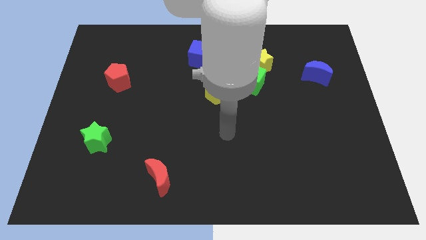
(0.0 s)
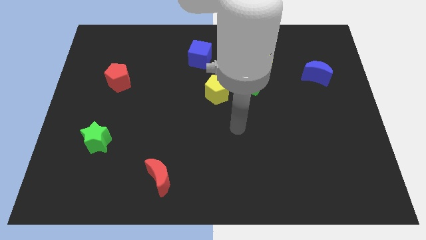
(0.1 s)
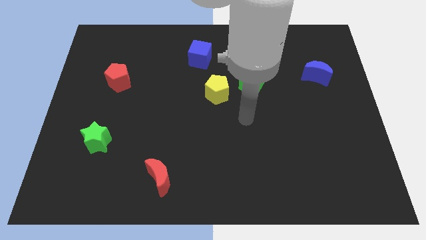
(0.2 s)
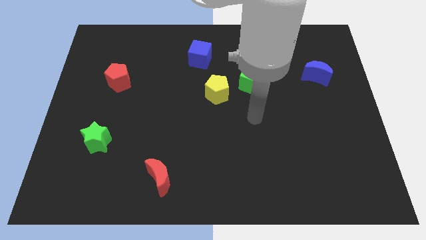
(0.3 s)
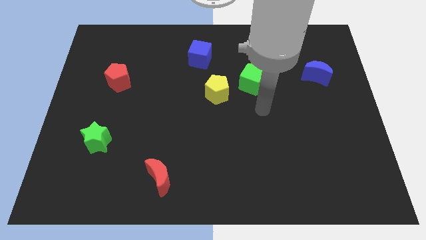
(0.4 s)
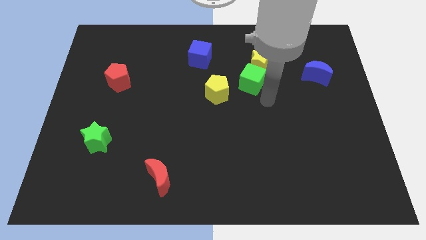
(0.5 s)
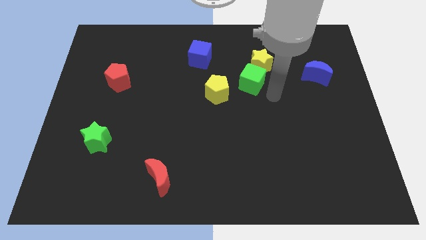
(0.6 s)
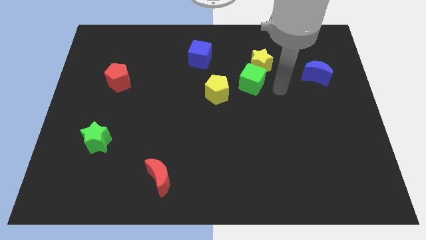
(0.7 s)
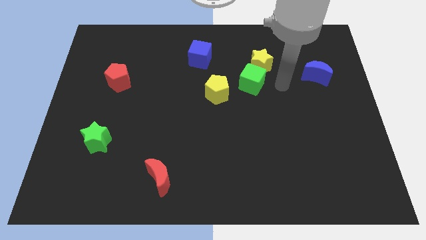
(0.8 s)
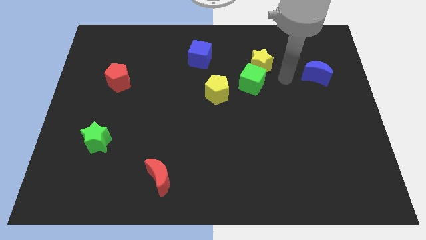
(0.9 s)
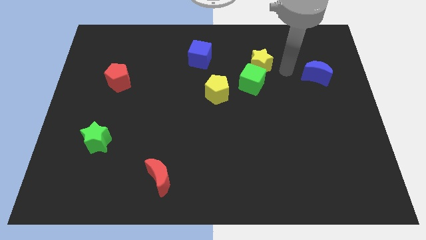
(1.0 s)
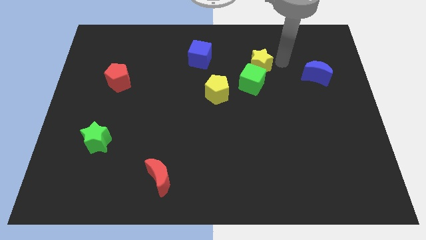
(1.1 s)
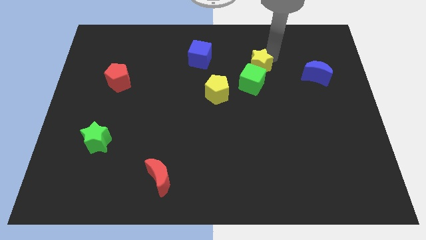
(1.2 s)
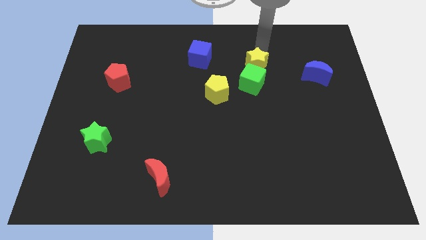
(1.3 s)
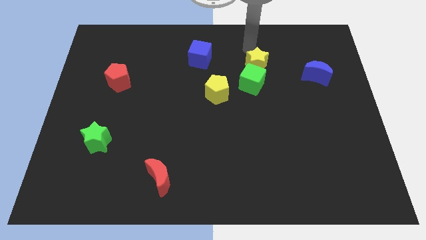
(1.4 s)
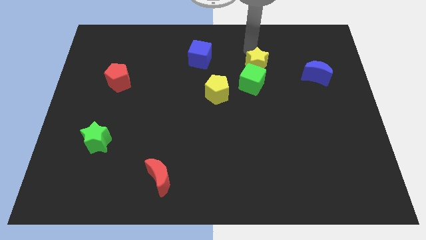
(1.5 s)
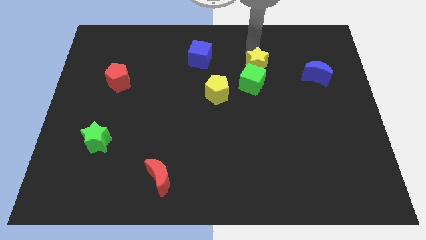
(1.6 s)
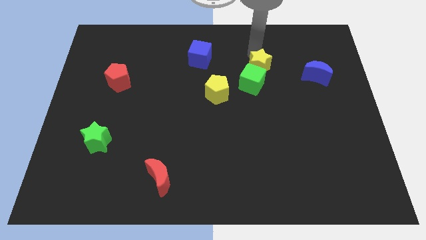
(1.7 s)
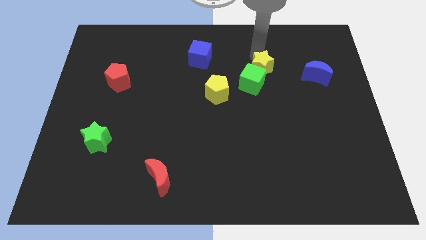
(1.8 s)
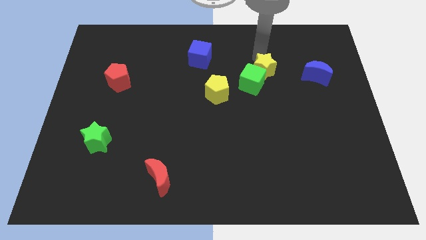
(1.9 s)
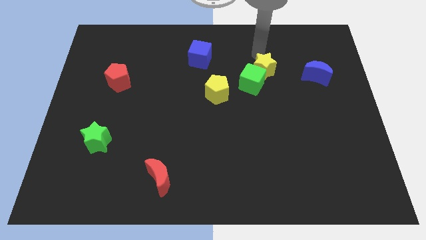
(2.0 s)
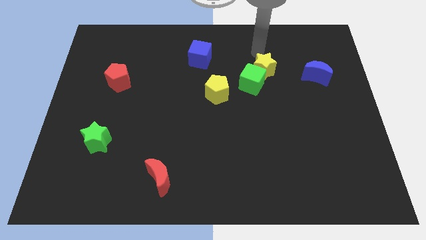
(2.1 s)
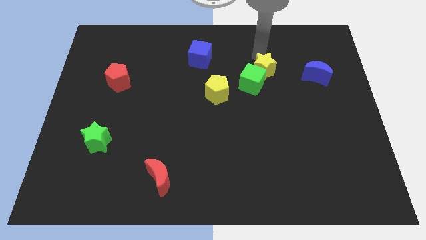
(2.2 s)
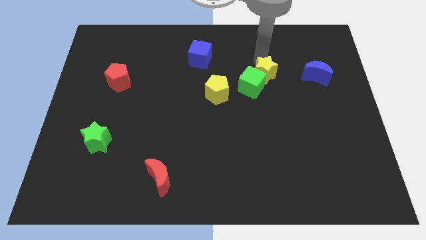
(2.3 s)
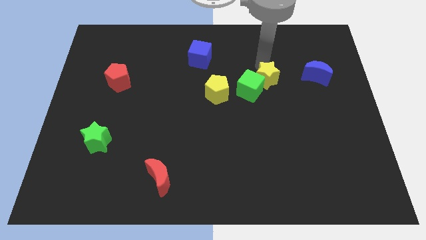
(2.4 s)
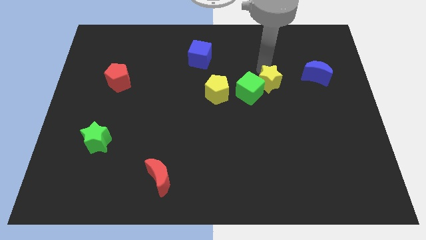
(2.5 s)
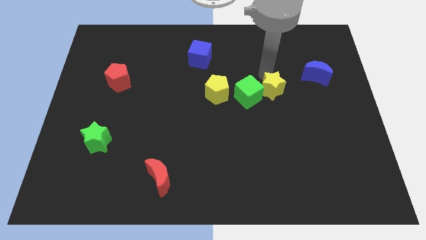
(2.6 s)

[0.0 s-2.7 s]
move the yellow star a little down

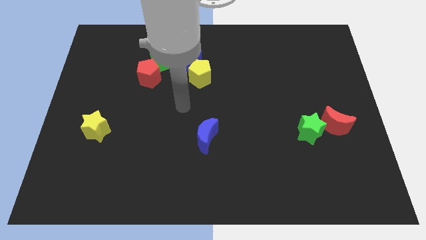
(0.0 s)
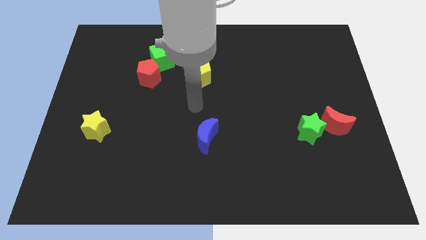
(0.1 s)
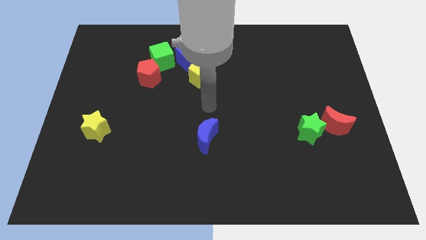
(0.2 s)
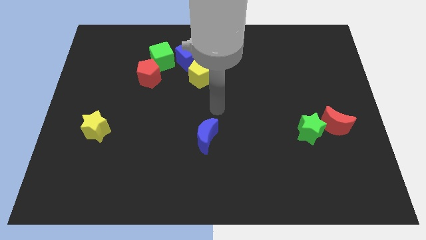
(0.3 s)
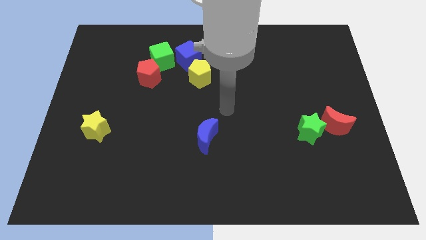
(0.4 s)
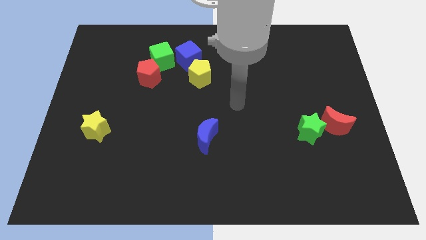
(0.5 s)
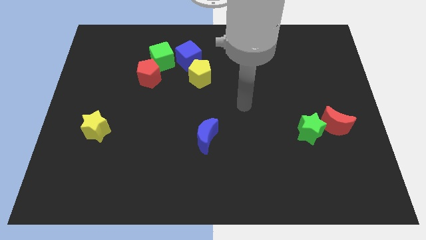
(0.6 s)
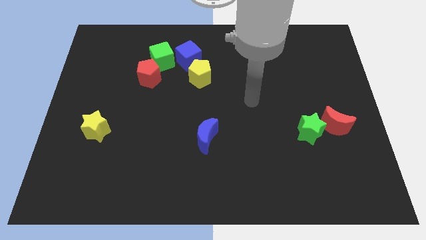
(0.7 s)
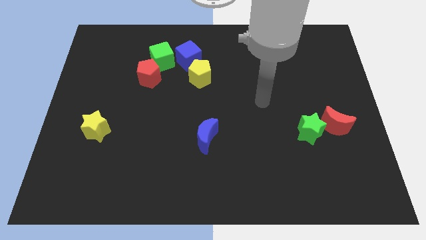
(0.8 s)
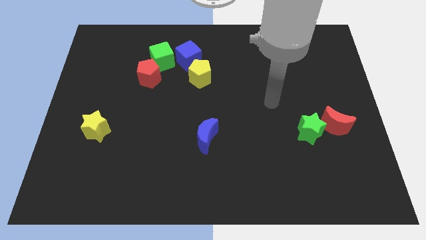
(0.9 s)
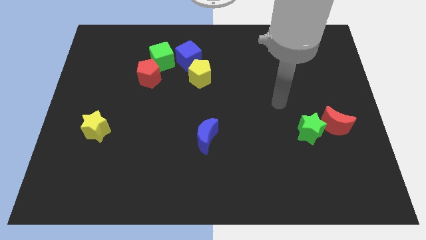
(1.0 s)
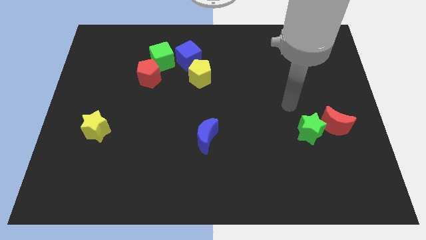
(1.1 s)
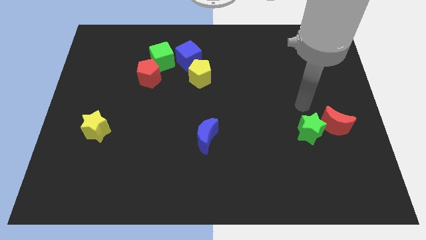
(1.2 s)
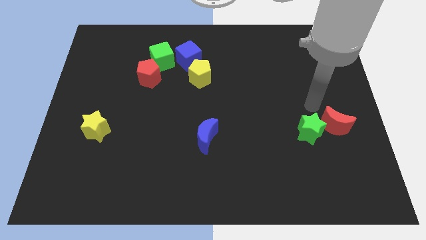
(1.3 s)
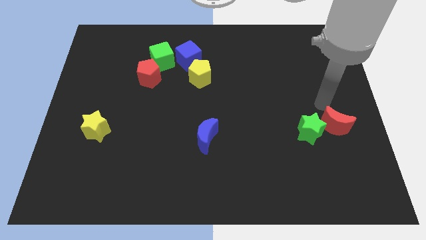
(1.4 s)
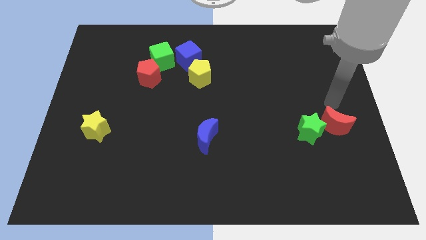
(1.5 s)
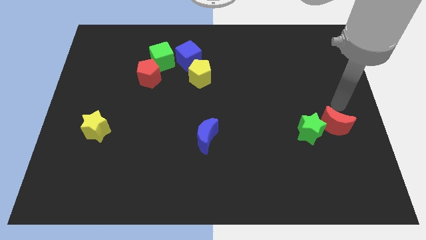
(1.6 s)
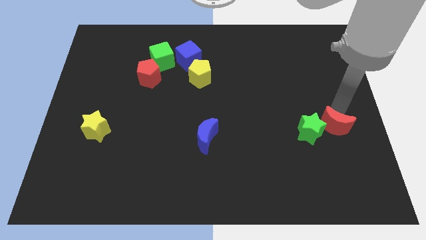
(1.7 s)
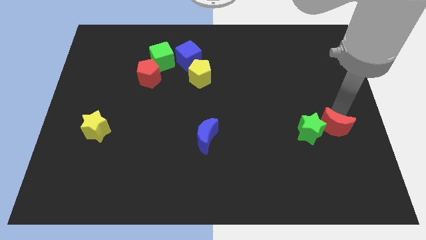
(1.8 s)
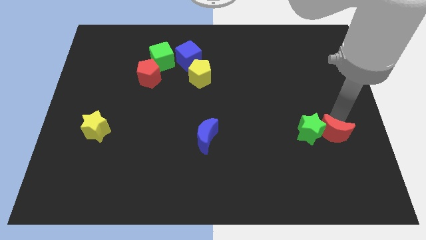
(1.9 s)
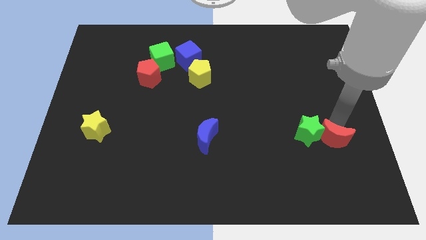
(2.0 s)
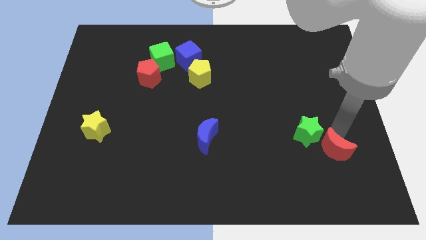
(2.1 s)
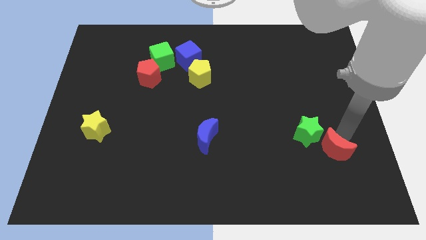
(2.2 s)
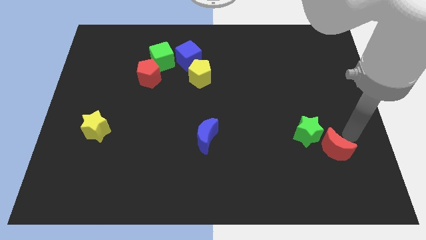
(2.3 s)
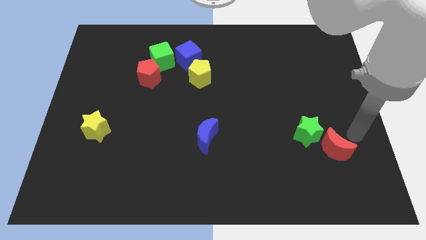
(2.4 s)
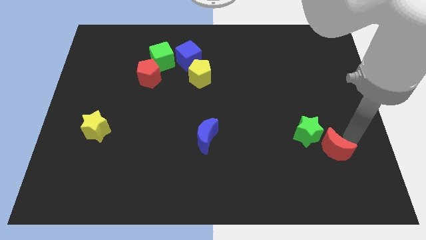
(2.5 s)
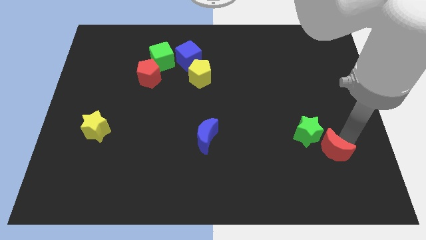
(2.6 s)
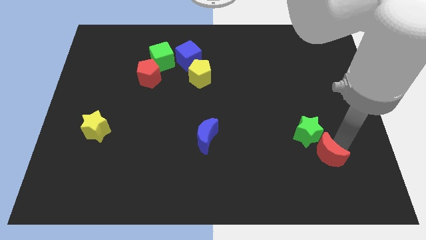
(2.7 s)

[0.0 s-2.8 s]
move the red moon a bit down and then left

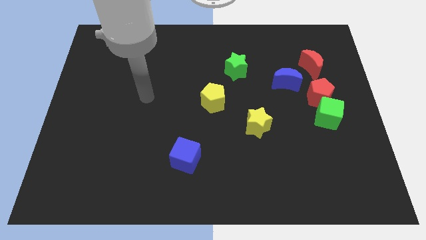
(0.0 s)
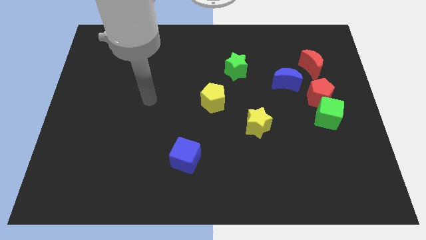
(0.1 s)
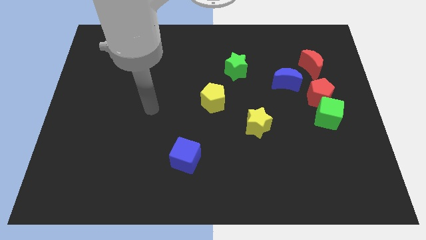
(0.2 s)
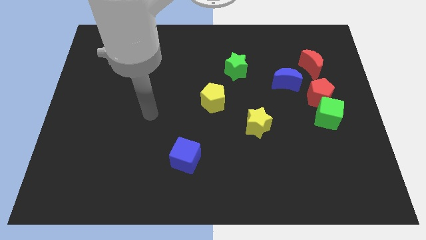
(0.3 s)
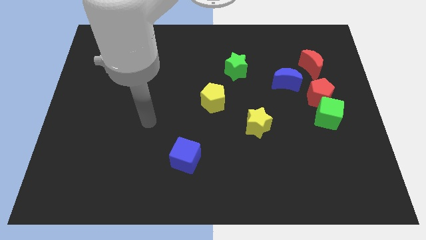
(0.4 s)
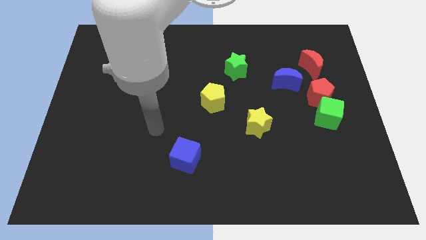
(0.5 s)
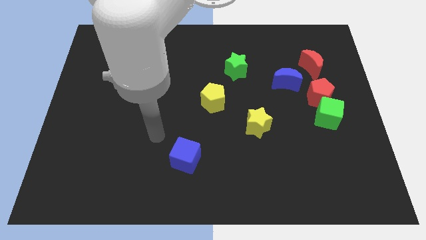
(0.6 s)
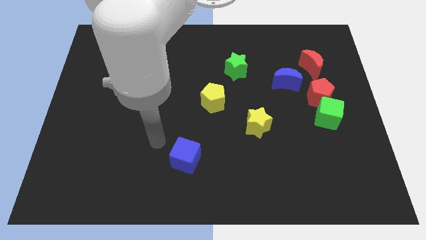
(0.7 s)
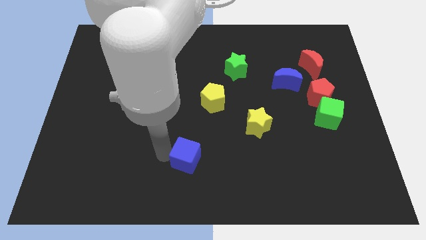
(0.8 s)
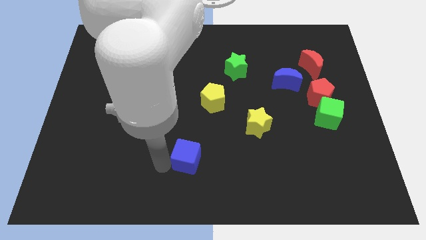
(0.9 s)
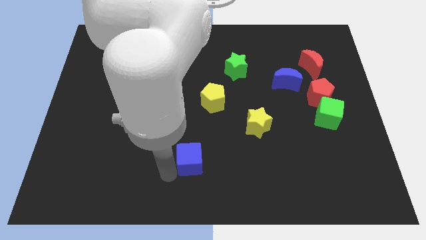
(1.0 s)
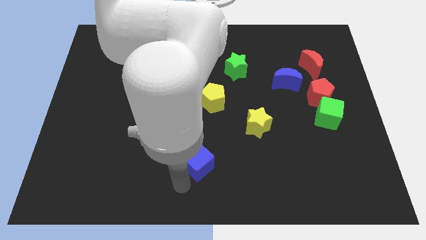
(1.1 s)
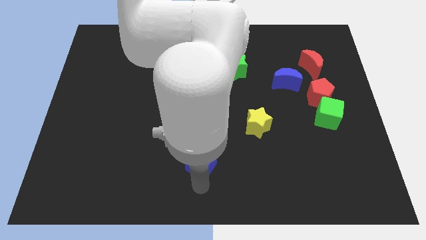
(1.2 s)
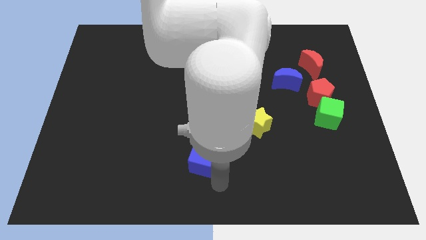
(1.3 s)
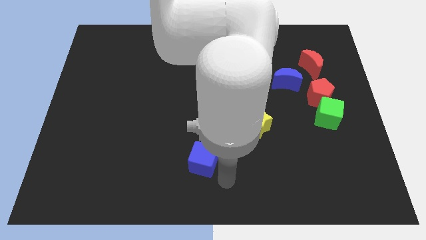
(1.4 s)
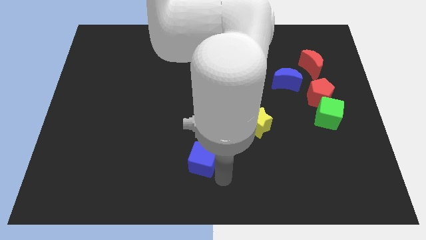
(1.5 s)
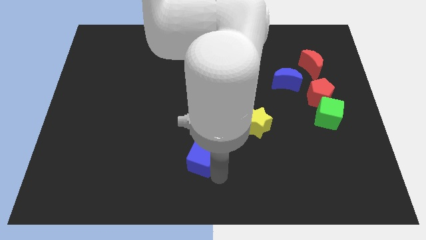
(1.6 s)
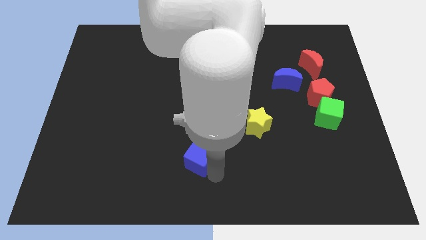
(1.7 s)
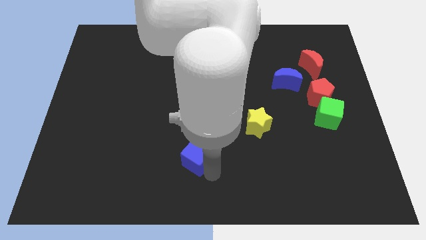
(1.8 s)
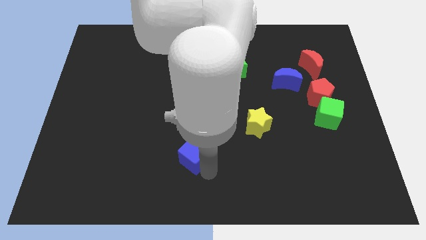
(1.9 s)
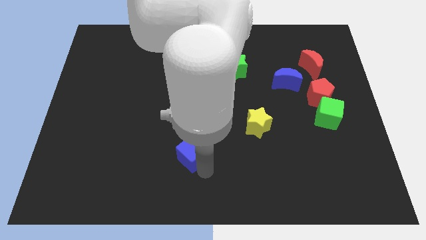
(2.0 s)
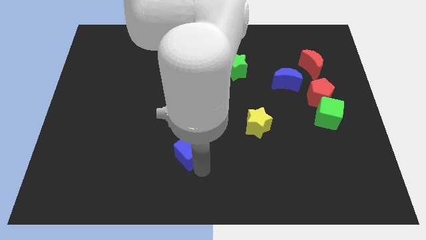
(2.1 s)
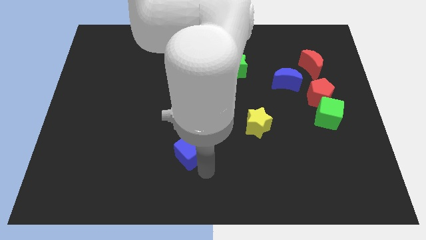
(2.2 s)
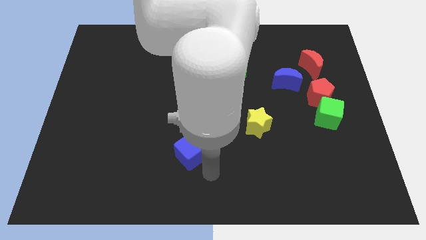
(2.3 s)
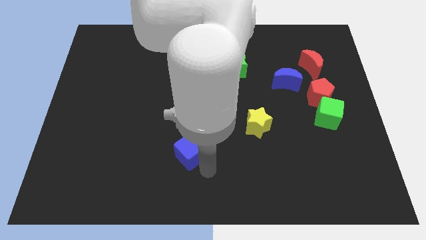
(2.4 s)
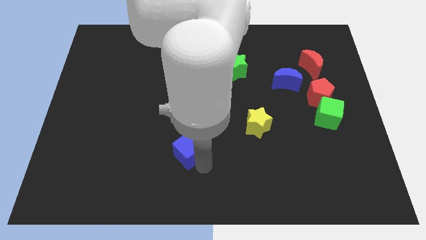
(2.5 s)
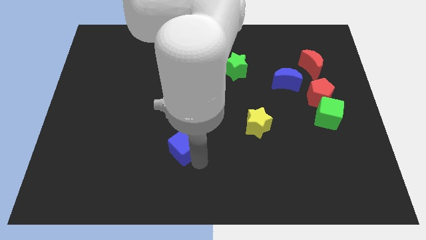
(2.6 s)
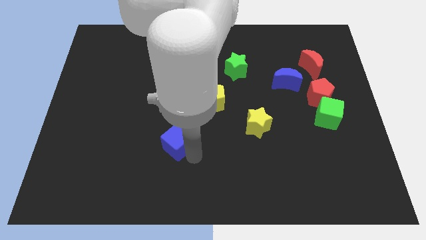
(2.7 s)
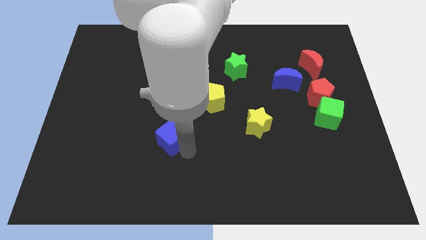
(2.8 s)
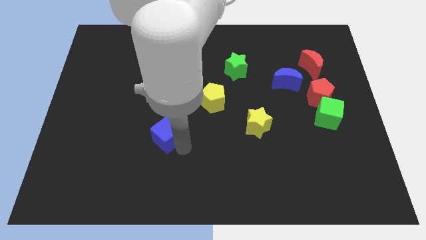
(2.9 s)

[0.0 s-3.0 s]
slide the blue cube a bit up and to the left diagonally
